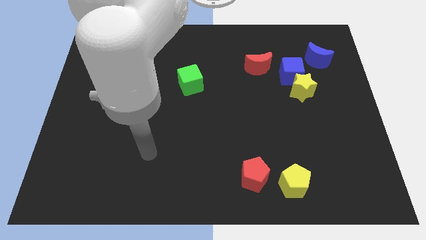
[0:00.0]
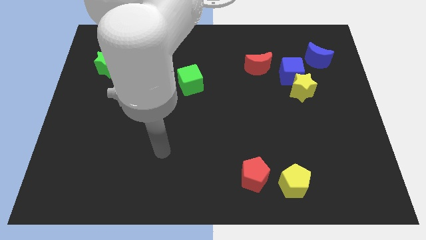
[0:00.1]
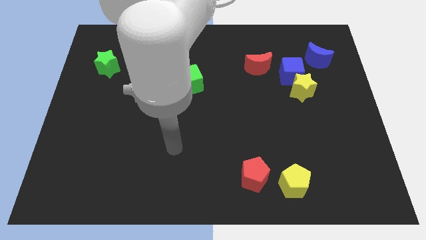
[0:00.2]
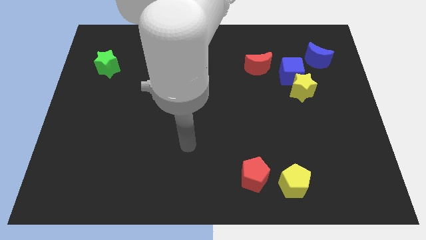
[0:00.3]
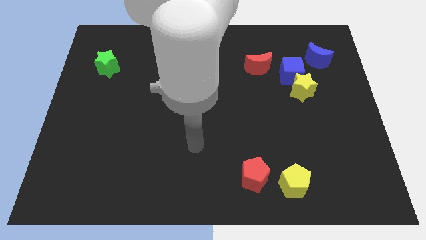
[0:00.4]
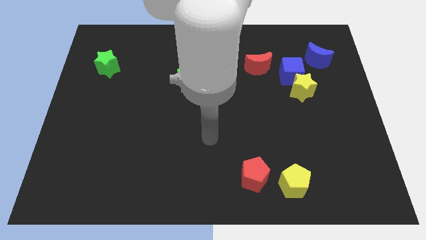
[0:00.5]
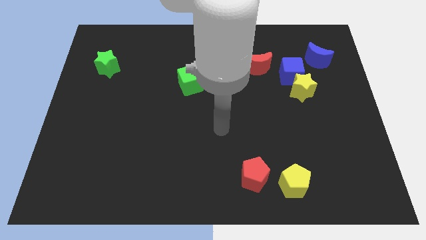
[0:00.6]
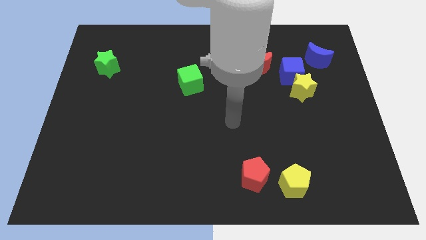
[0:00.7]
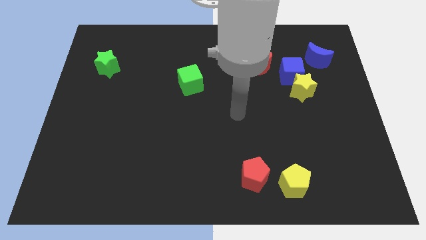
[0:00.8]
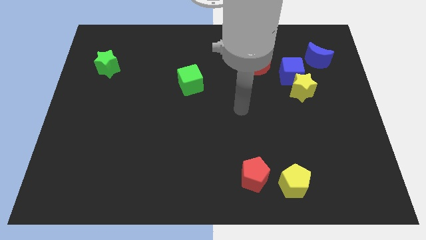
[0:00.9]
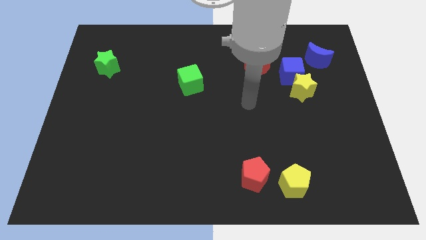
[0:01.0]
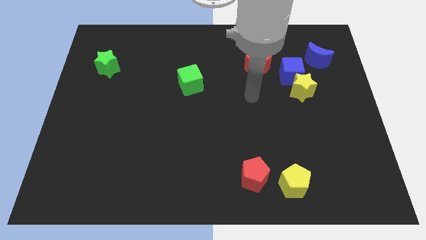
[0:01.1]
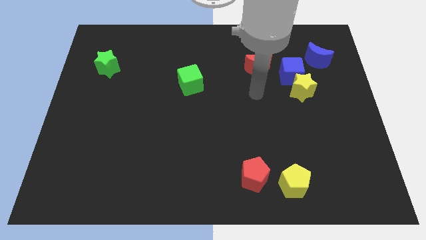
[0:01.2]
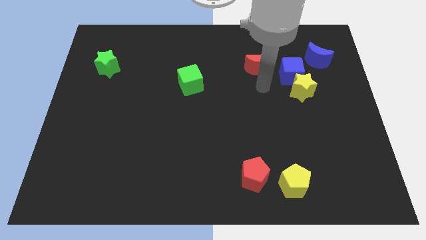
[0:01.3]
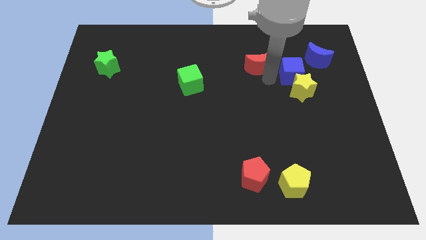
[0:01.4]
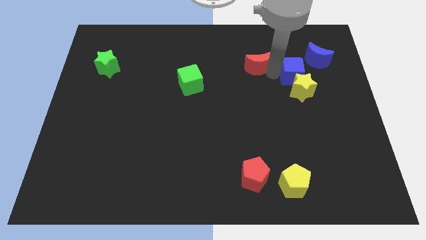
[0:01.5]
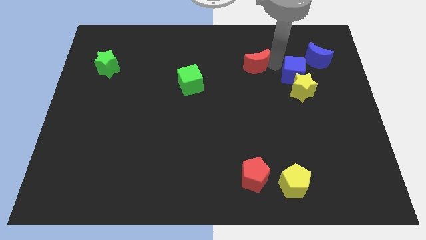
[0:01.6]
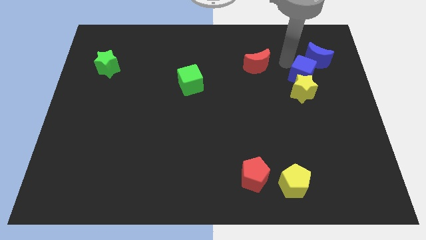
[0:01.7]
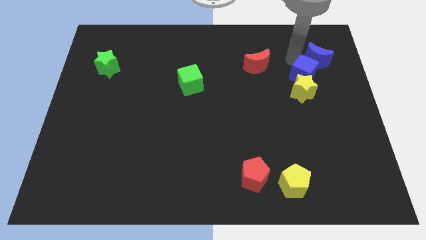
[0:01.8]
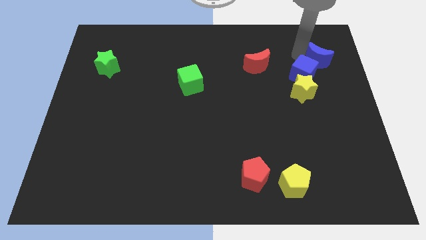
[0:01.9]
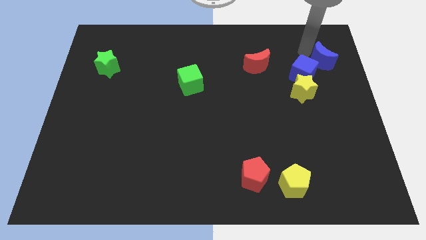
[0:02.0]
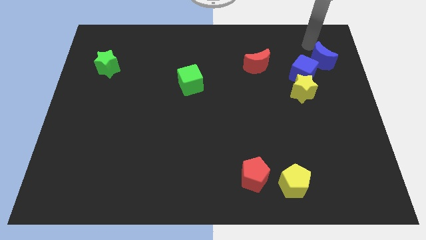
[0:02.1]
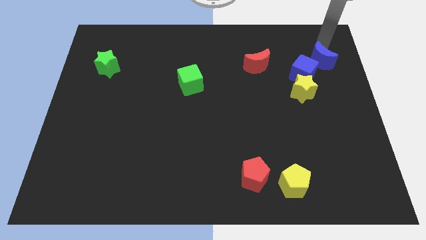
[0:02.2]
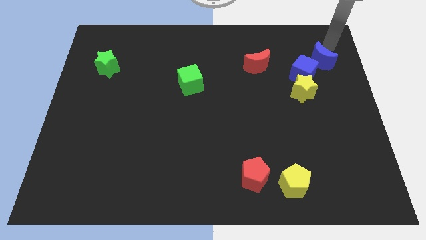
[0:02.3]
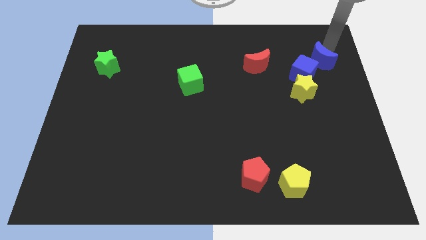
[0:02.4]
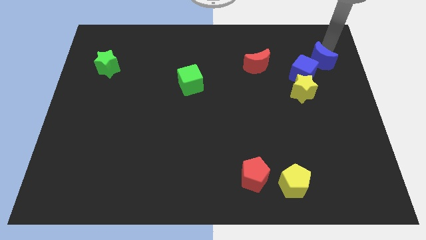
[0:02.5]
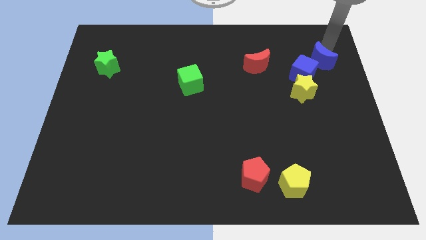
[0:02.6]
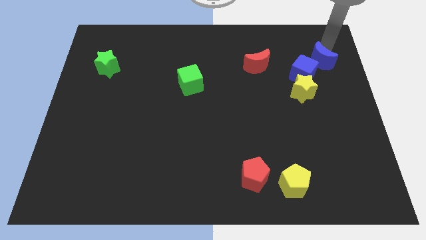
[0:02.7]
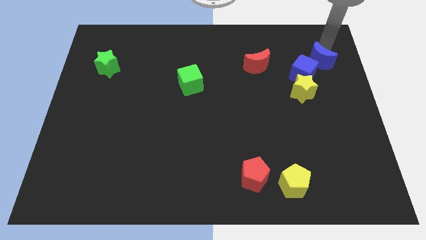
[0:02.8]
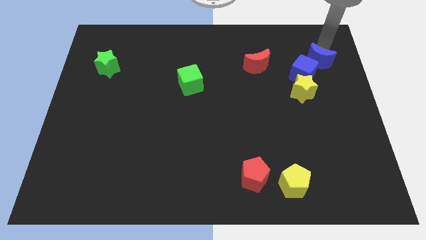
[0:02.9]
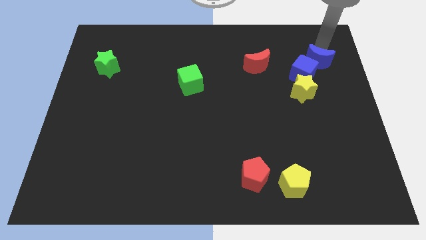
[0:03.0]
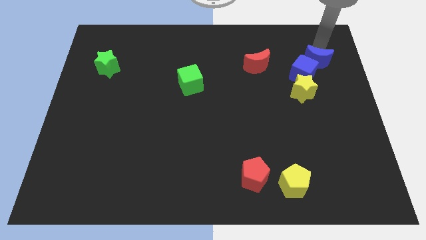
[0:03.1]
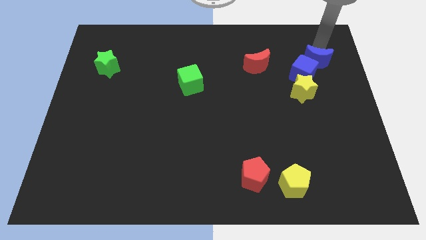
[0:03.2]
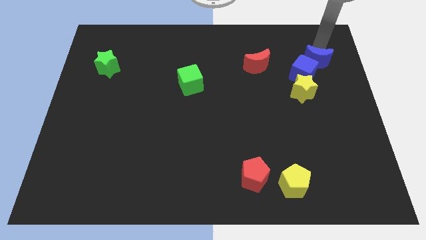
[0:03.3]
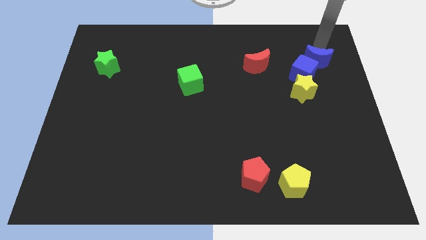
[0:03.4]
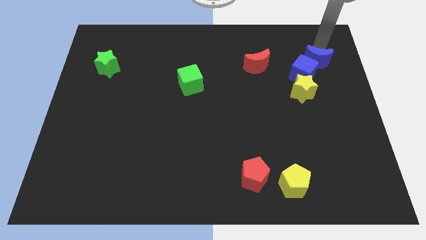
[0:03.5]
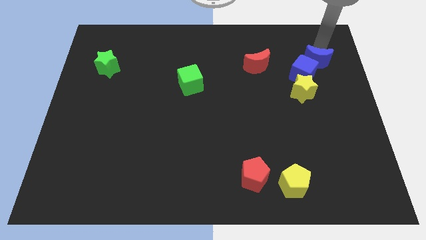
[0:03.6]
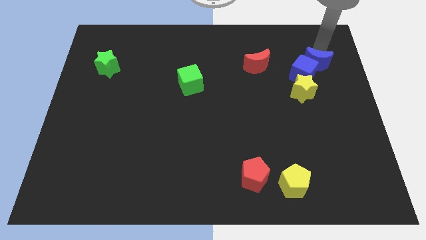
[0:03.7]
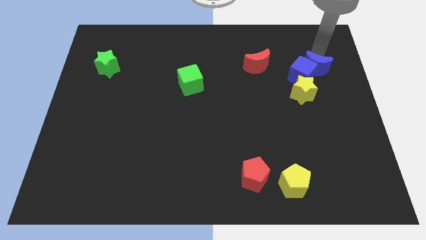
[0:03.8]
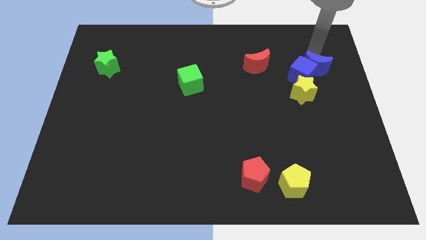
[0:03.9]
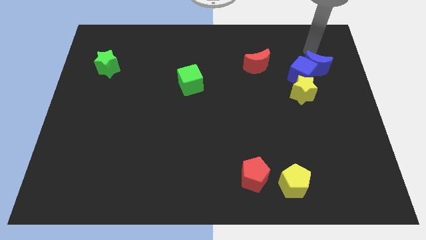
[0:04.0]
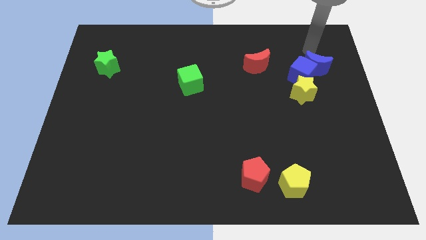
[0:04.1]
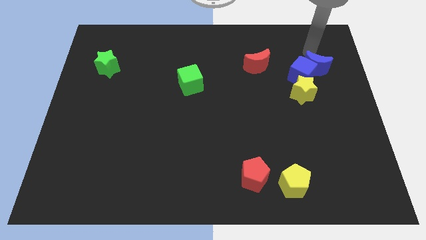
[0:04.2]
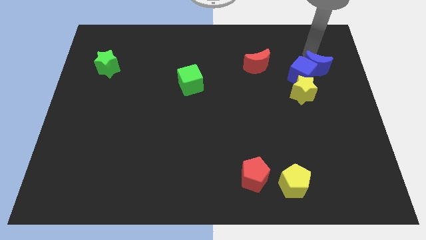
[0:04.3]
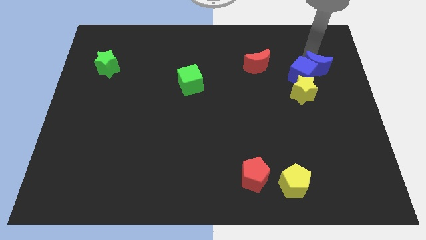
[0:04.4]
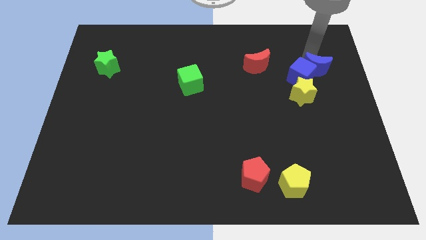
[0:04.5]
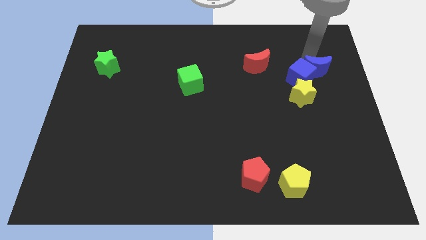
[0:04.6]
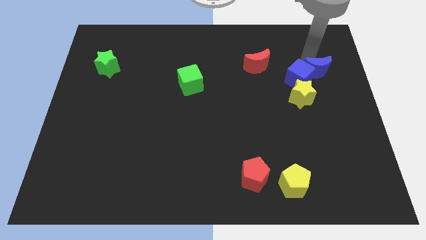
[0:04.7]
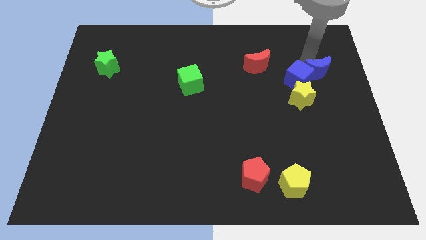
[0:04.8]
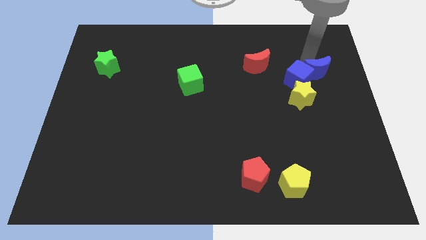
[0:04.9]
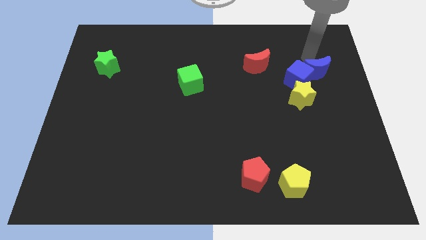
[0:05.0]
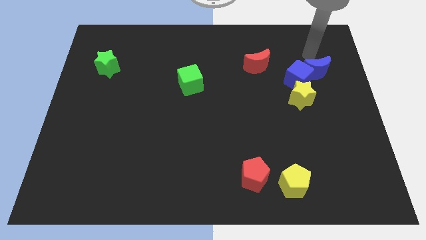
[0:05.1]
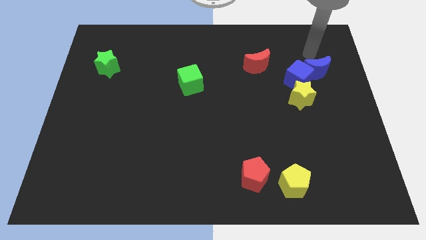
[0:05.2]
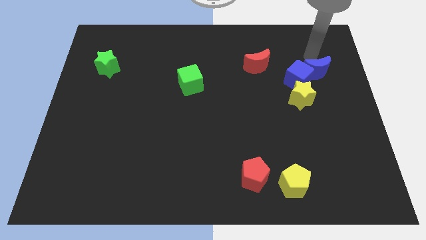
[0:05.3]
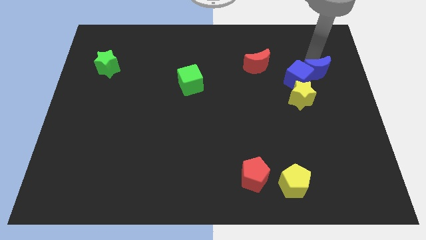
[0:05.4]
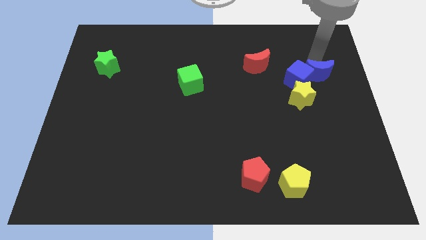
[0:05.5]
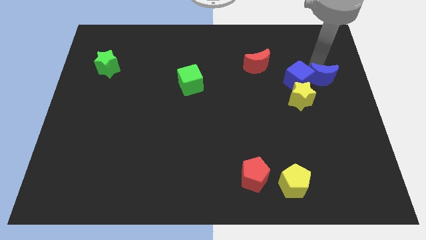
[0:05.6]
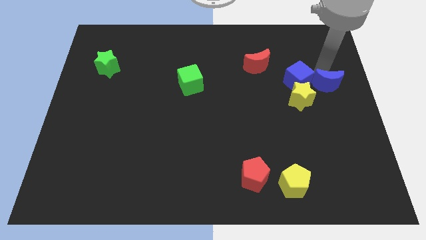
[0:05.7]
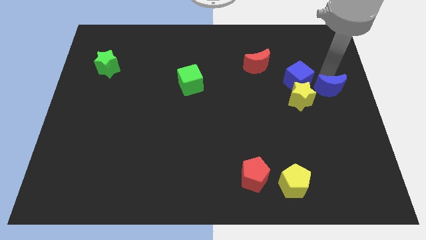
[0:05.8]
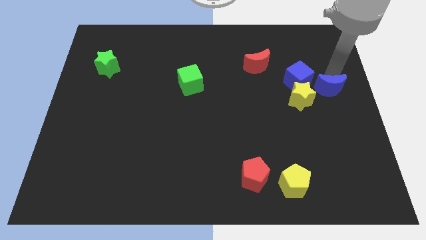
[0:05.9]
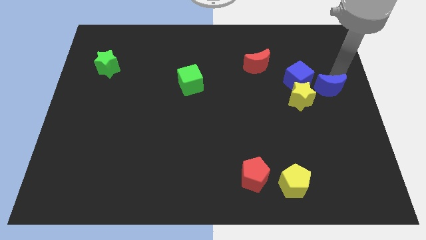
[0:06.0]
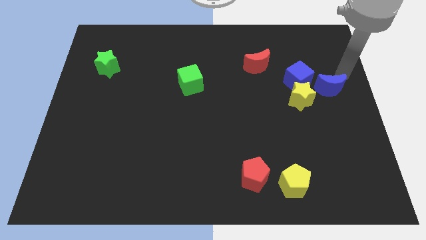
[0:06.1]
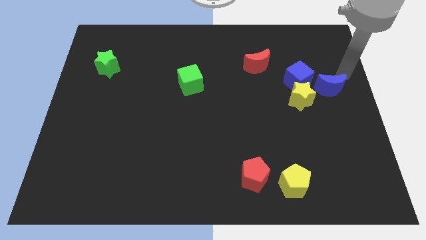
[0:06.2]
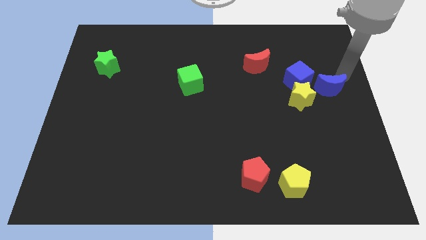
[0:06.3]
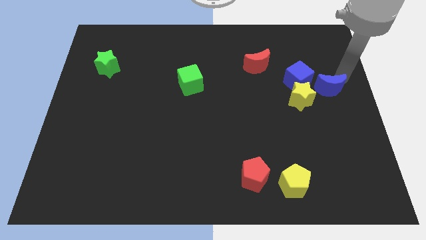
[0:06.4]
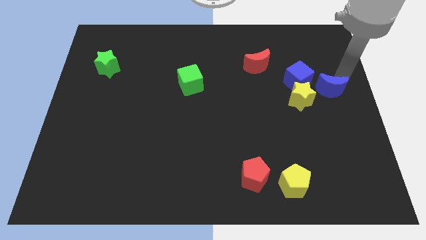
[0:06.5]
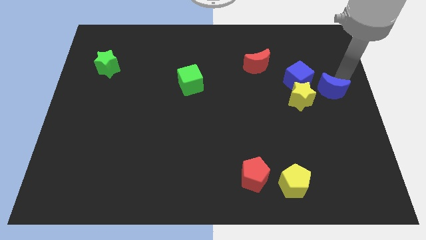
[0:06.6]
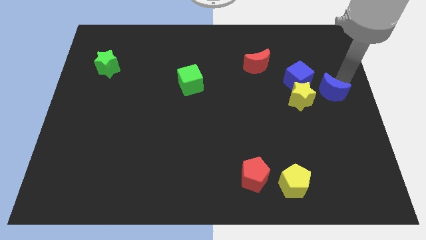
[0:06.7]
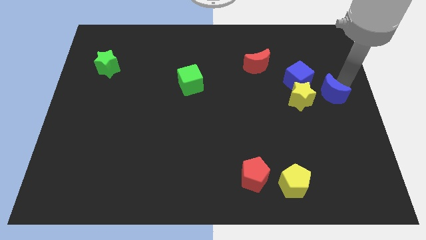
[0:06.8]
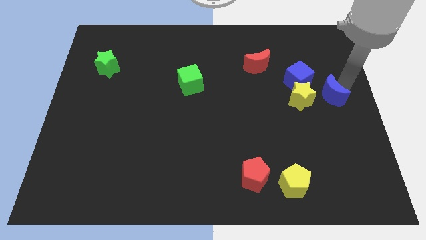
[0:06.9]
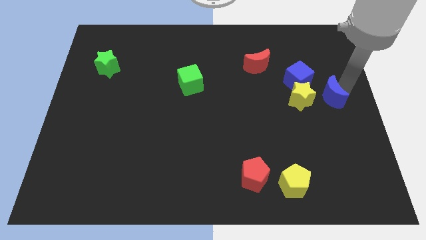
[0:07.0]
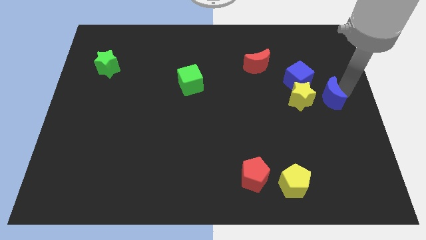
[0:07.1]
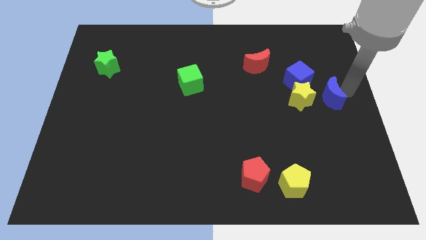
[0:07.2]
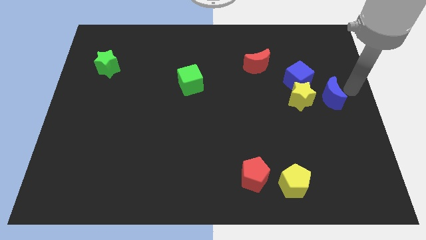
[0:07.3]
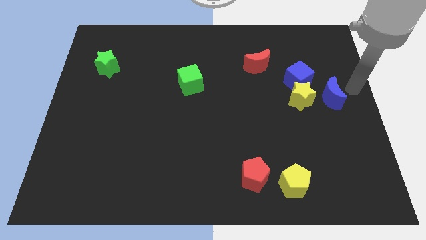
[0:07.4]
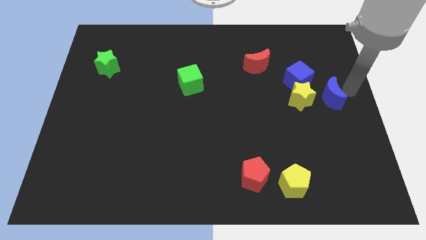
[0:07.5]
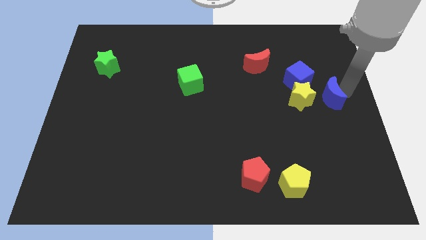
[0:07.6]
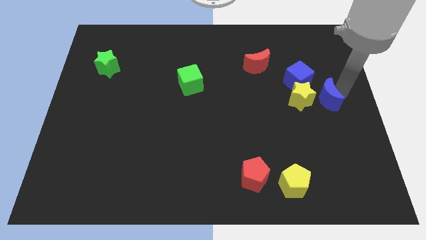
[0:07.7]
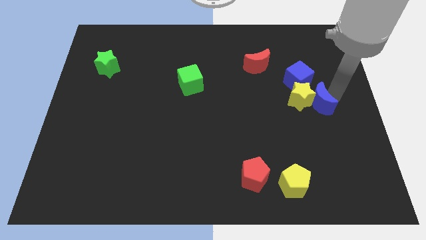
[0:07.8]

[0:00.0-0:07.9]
push the blue moon a little down and to the left diagonally
